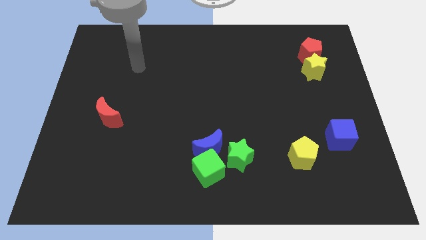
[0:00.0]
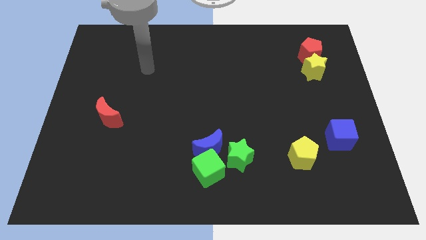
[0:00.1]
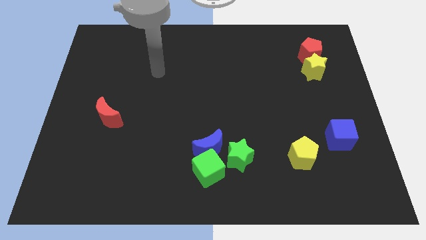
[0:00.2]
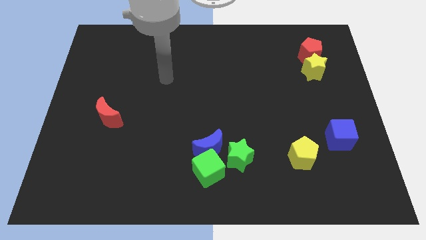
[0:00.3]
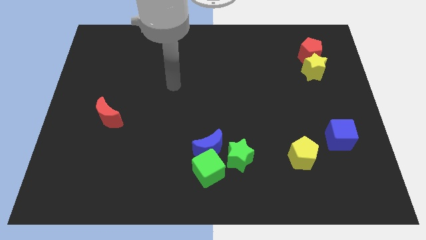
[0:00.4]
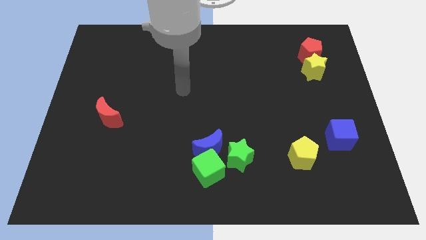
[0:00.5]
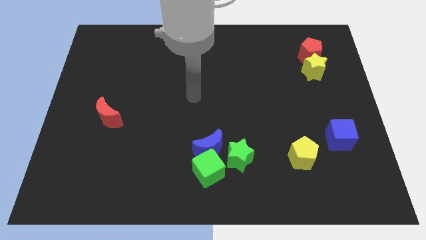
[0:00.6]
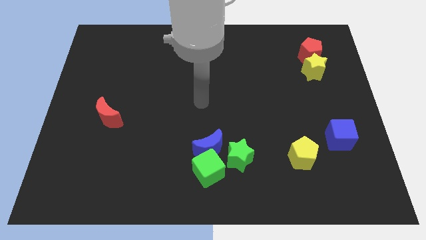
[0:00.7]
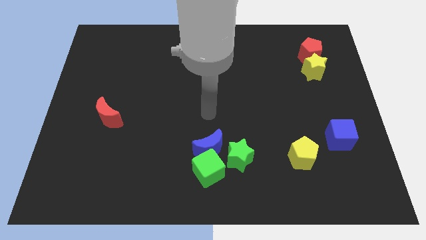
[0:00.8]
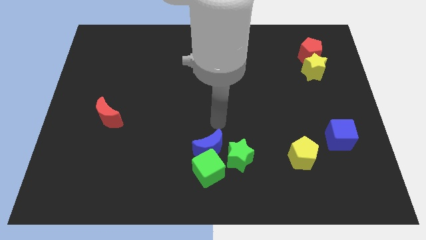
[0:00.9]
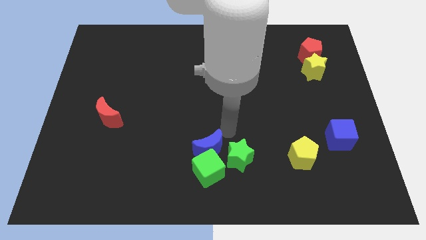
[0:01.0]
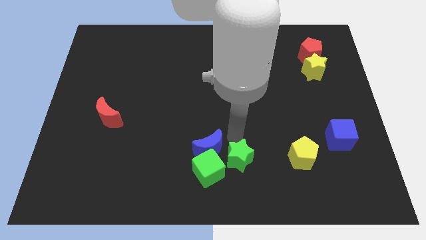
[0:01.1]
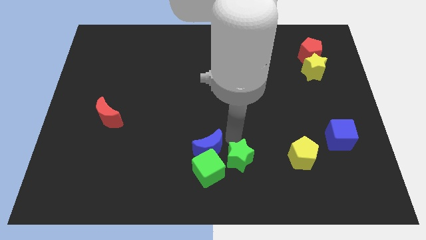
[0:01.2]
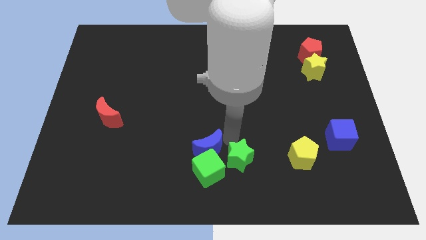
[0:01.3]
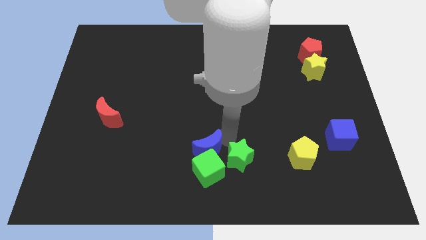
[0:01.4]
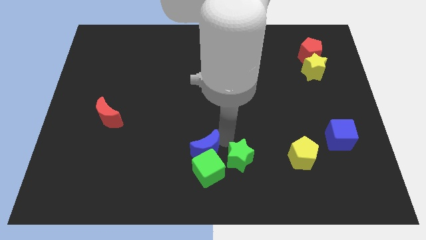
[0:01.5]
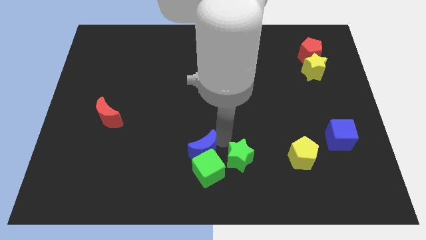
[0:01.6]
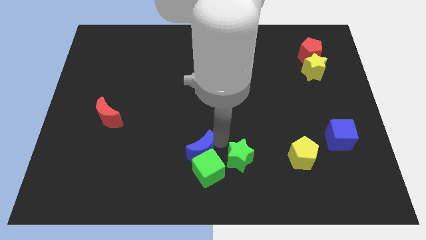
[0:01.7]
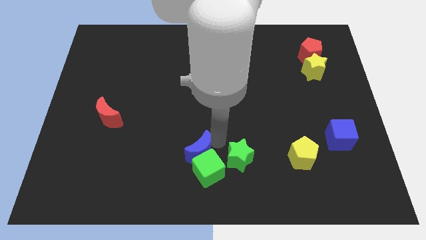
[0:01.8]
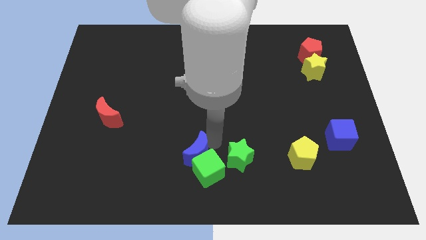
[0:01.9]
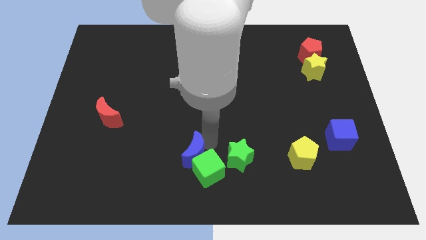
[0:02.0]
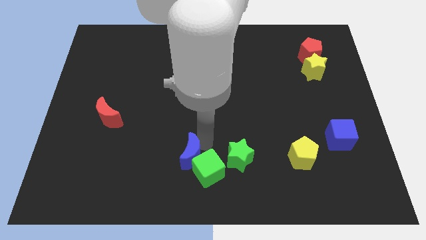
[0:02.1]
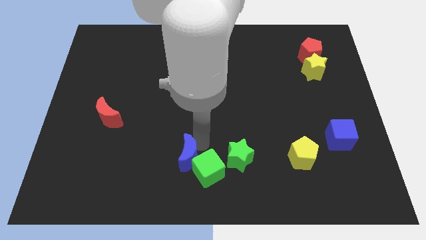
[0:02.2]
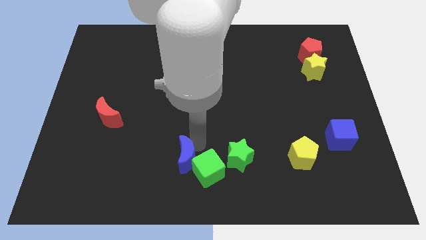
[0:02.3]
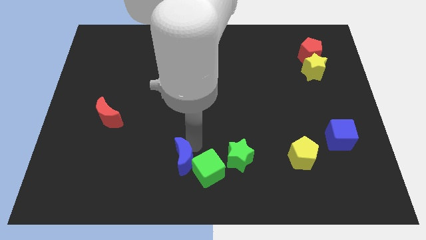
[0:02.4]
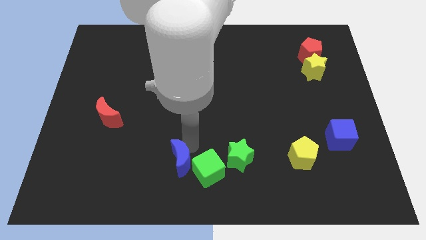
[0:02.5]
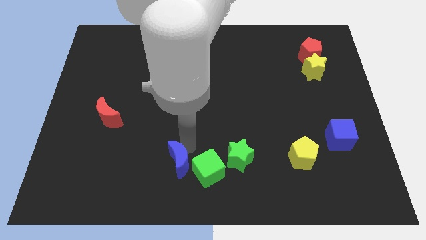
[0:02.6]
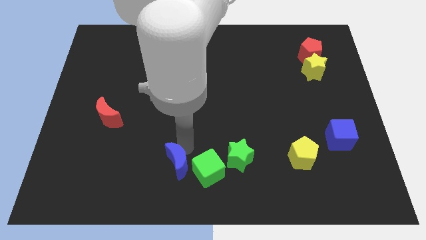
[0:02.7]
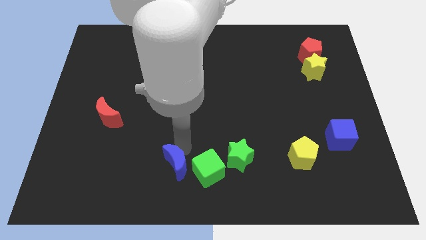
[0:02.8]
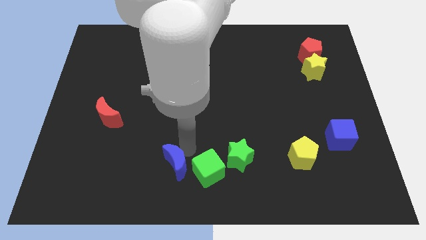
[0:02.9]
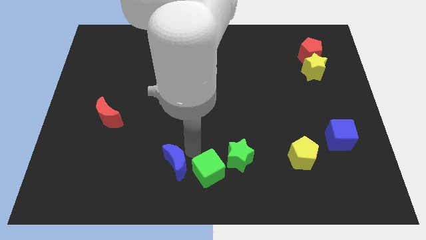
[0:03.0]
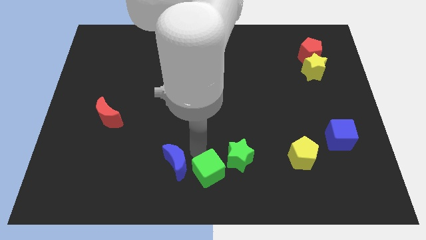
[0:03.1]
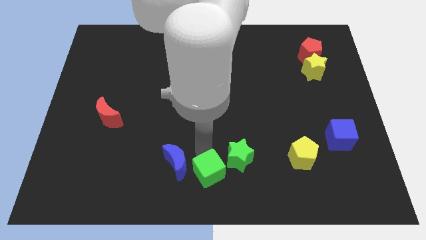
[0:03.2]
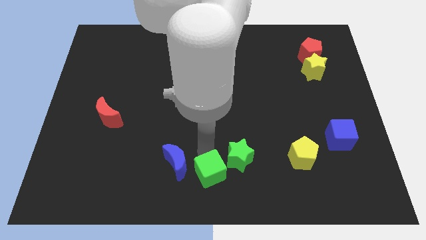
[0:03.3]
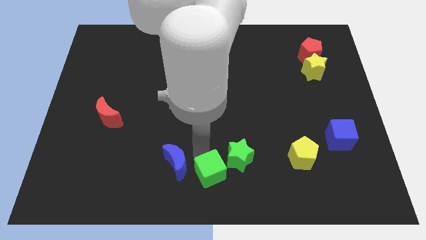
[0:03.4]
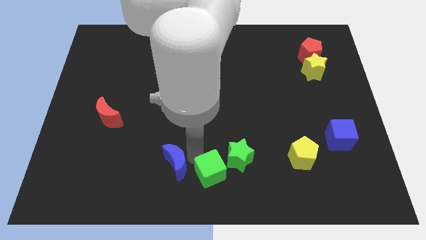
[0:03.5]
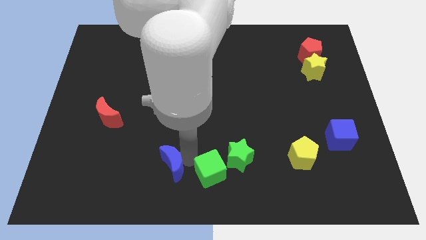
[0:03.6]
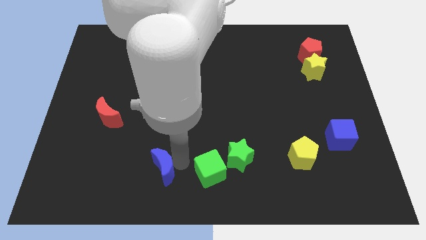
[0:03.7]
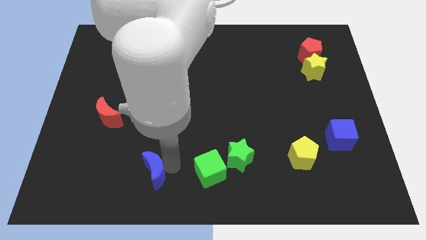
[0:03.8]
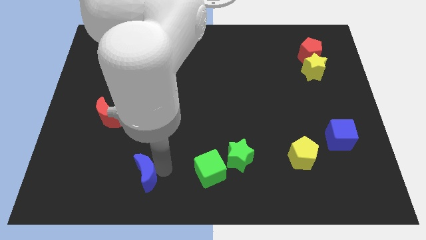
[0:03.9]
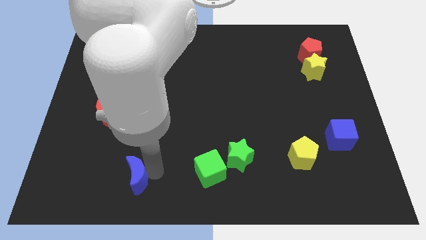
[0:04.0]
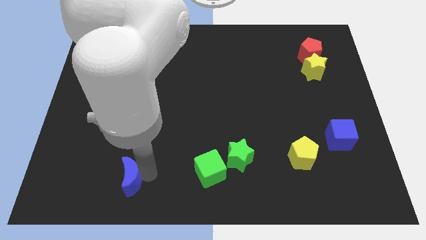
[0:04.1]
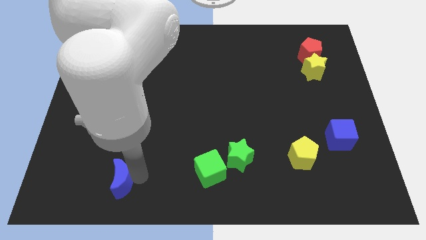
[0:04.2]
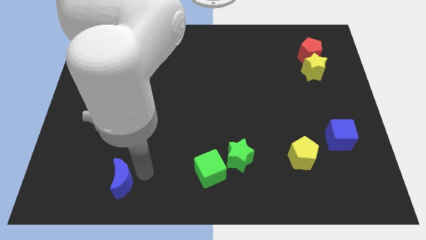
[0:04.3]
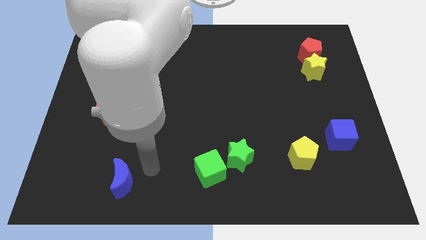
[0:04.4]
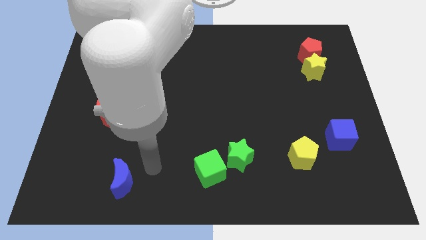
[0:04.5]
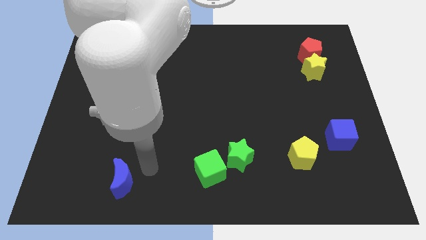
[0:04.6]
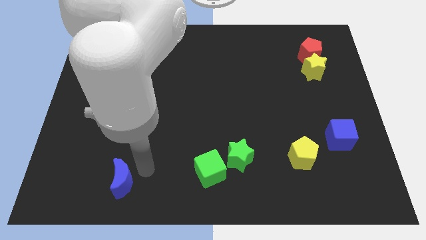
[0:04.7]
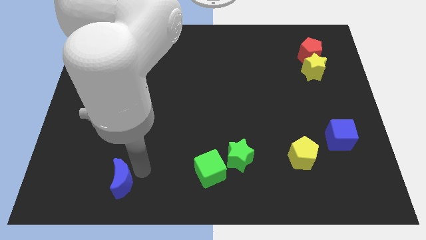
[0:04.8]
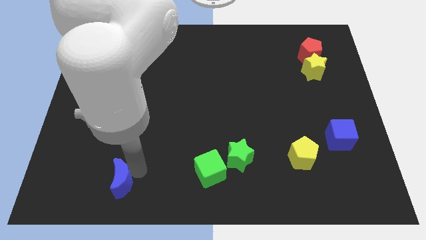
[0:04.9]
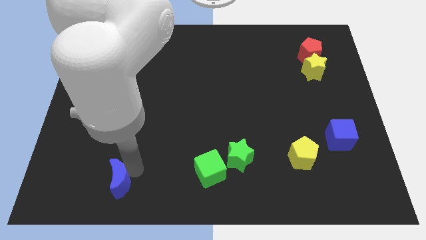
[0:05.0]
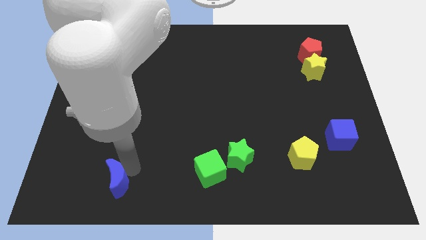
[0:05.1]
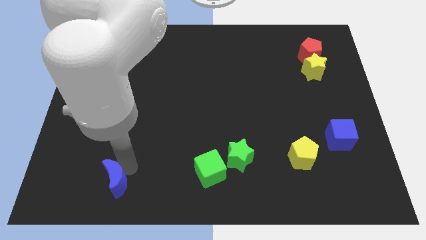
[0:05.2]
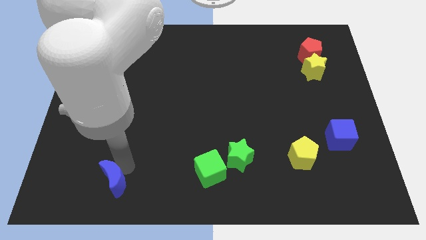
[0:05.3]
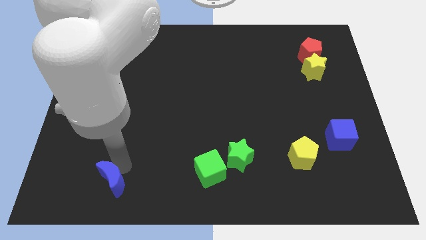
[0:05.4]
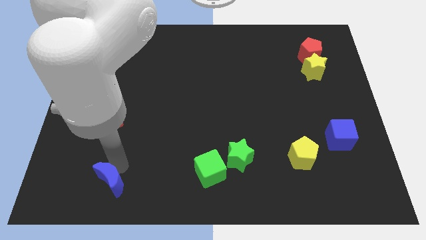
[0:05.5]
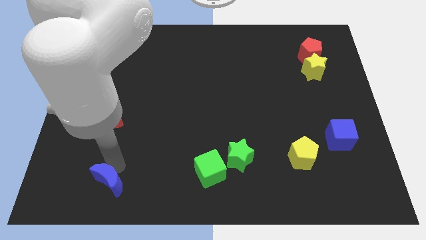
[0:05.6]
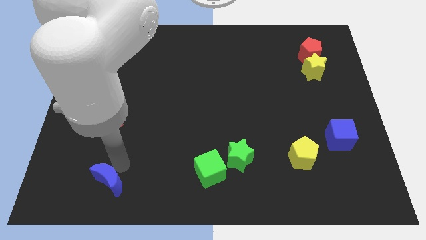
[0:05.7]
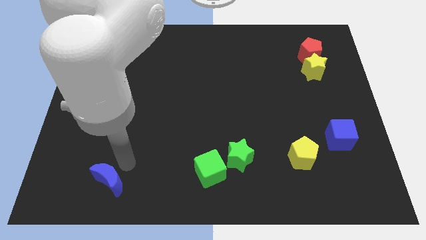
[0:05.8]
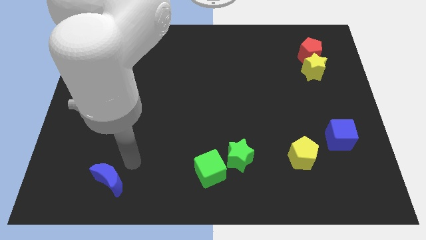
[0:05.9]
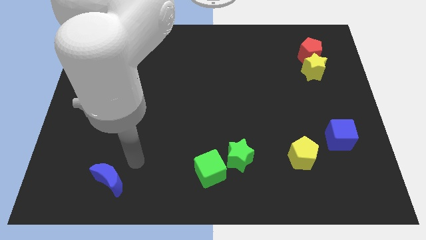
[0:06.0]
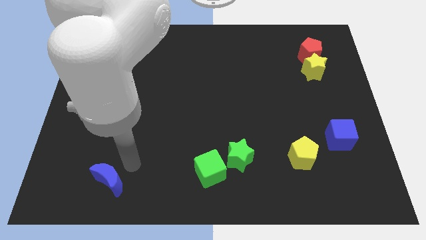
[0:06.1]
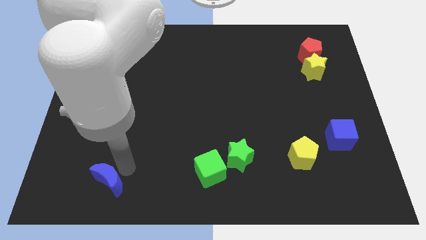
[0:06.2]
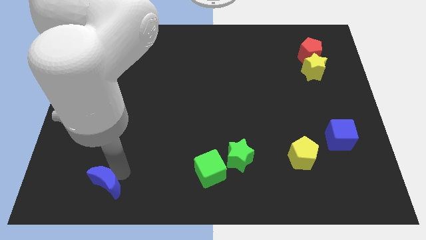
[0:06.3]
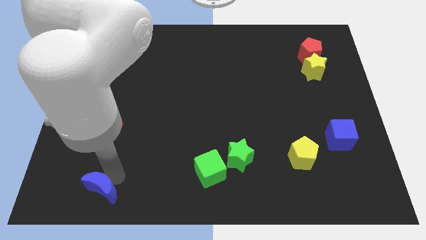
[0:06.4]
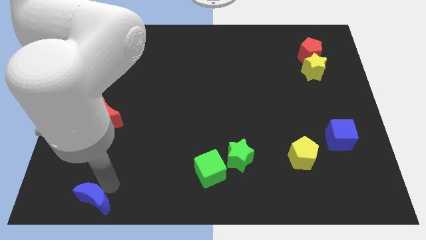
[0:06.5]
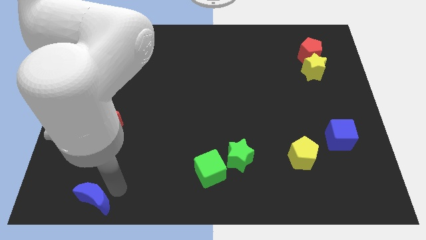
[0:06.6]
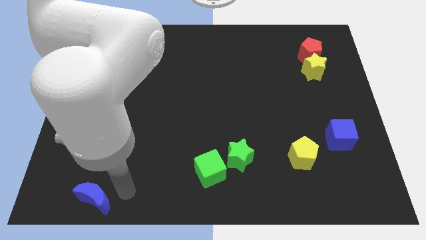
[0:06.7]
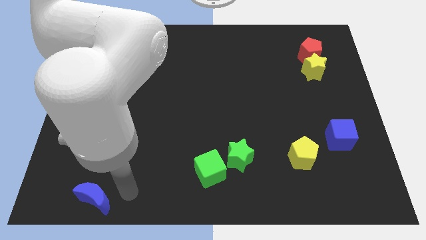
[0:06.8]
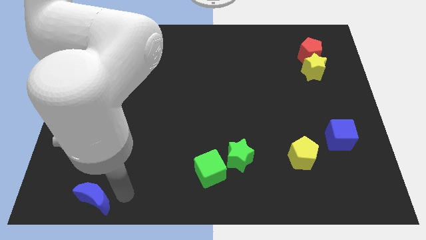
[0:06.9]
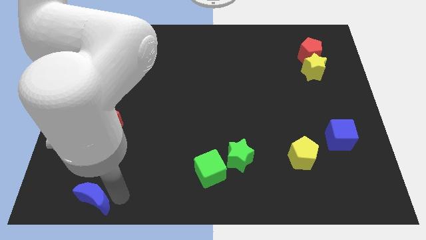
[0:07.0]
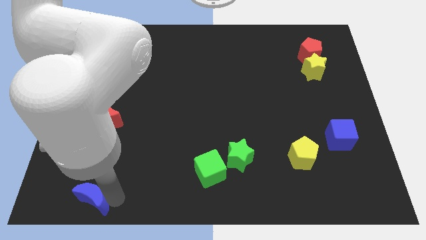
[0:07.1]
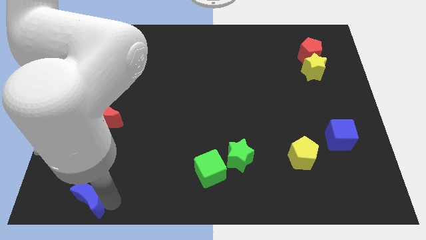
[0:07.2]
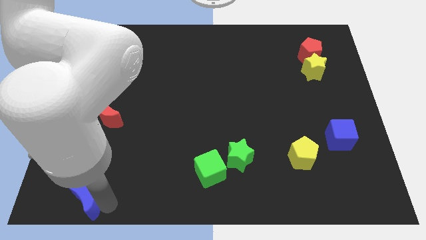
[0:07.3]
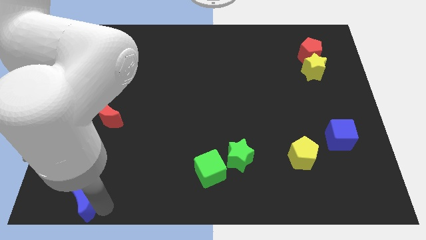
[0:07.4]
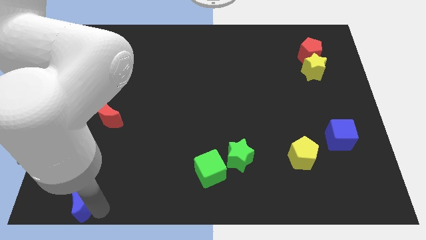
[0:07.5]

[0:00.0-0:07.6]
slide the blue moon to the bottom left of the board
